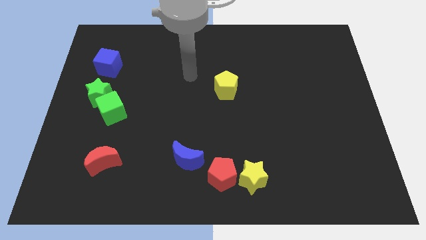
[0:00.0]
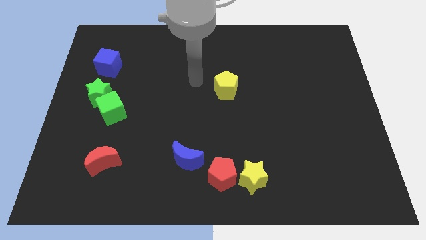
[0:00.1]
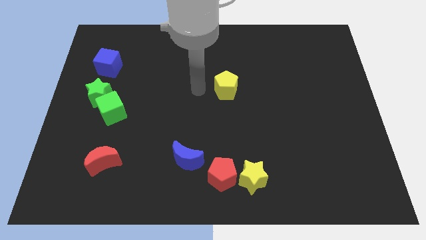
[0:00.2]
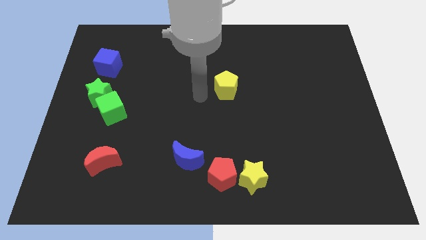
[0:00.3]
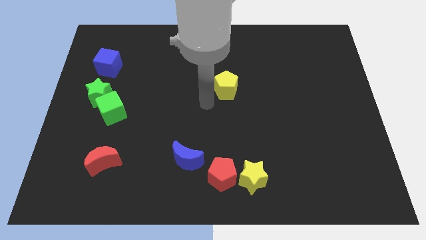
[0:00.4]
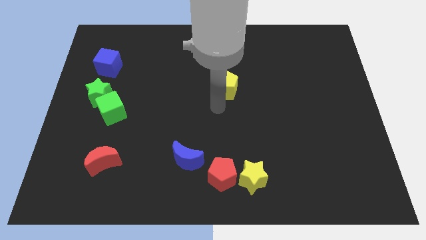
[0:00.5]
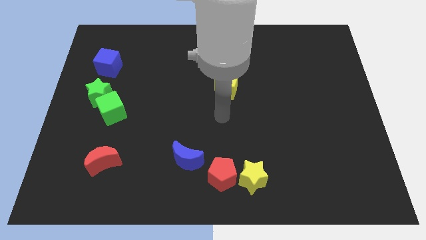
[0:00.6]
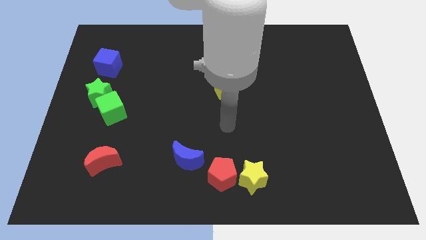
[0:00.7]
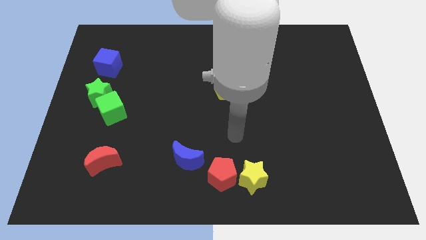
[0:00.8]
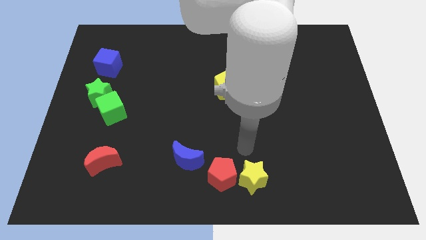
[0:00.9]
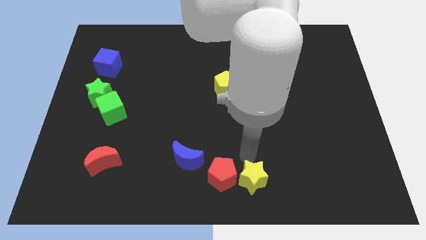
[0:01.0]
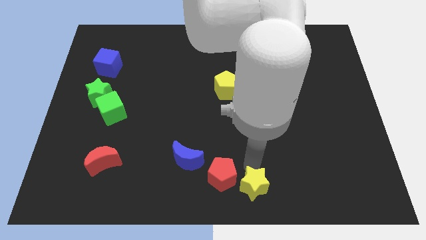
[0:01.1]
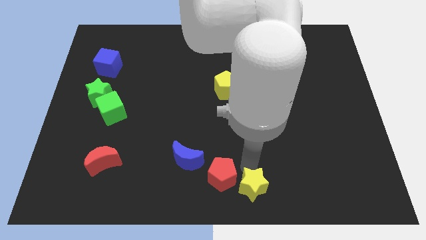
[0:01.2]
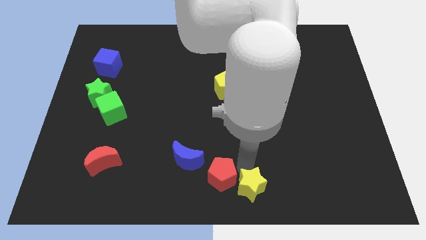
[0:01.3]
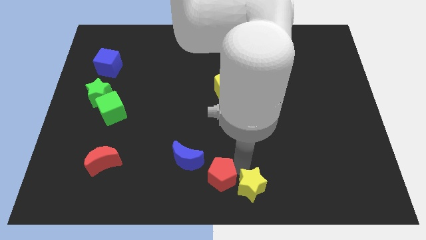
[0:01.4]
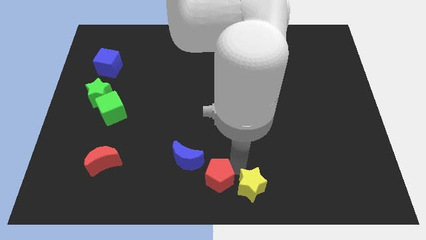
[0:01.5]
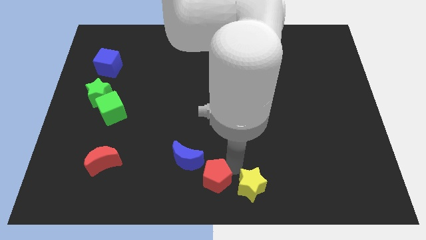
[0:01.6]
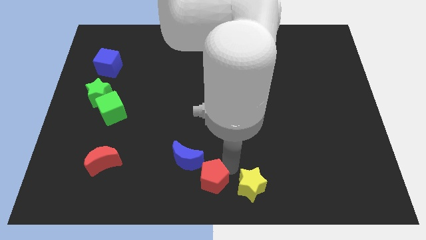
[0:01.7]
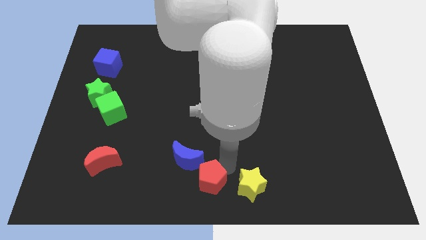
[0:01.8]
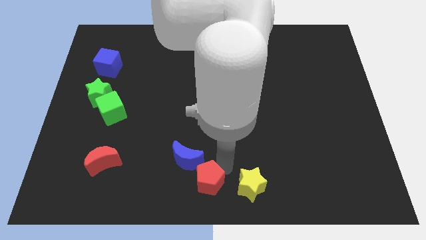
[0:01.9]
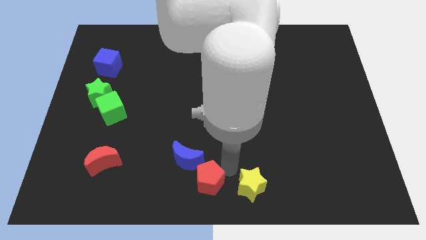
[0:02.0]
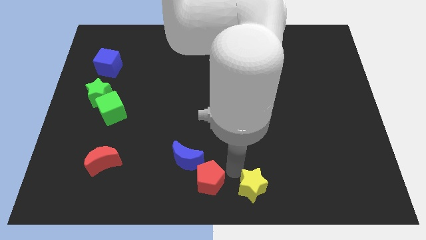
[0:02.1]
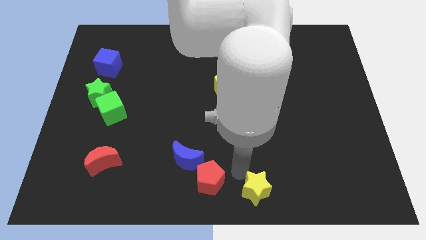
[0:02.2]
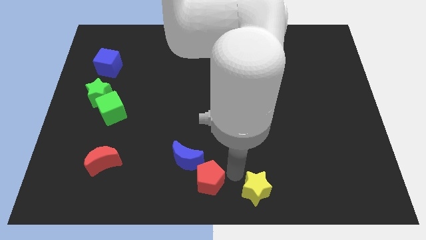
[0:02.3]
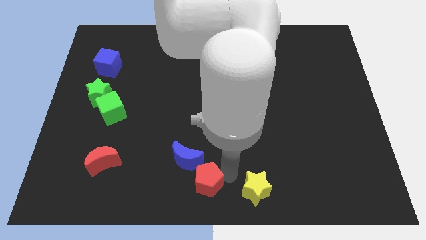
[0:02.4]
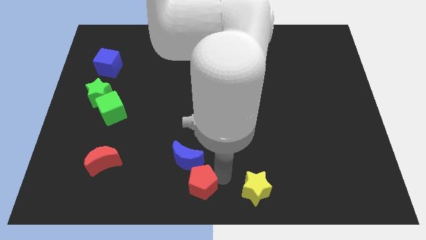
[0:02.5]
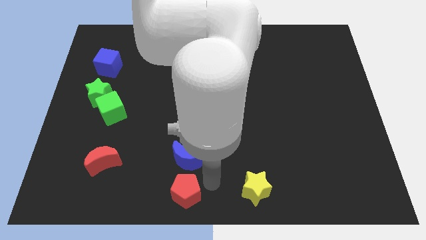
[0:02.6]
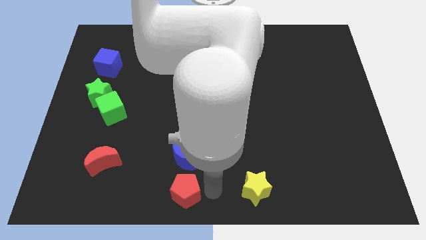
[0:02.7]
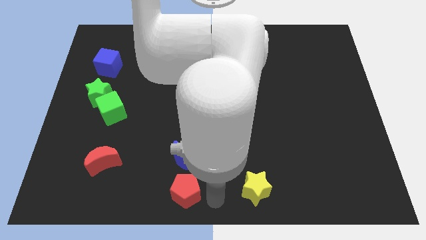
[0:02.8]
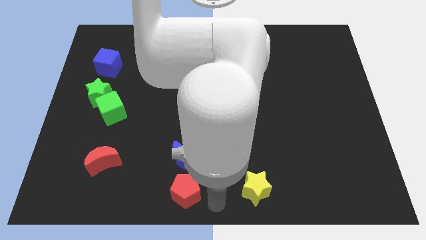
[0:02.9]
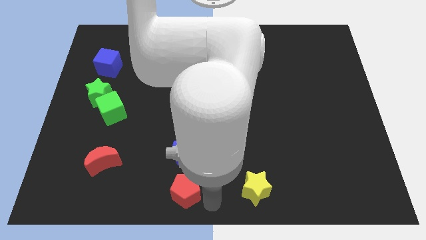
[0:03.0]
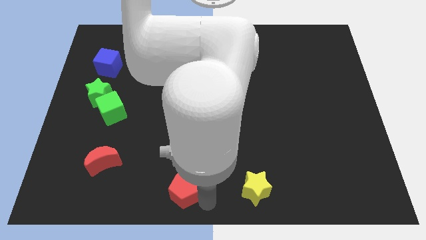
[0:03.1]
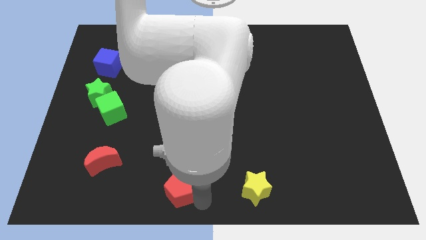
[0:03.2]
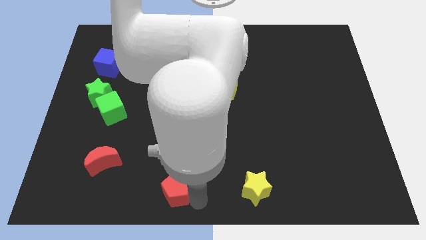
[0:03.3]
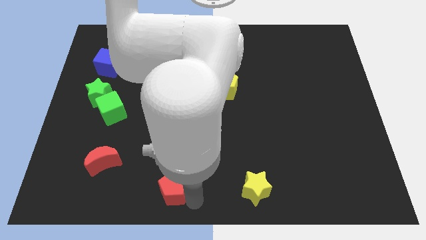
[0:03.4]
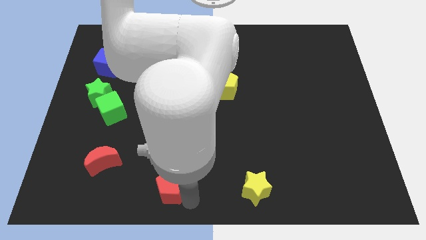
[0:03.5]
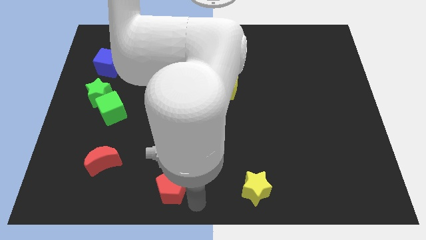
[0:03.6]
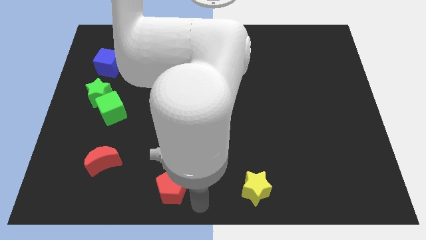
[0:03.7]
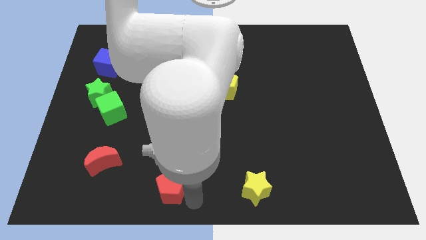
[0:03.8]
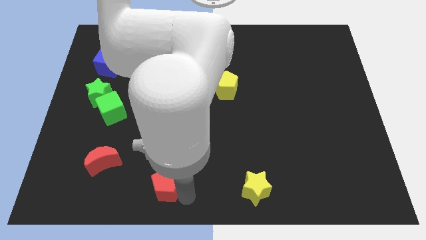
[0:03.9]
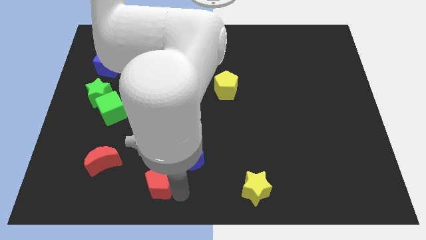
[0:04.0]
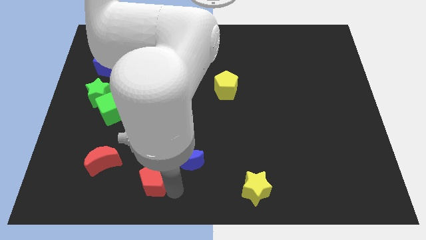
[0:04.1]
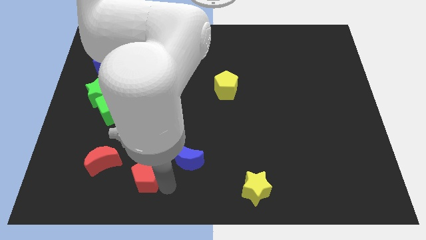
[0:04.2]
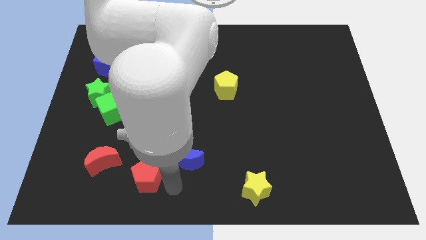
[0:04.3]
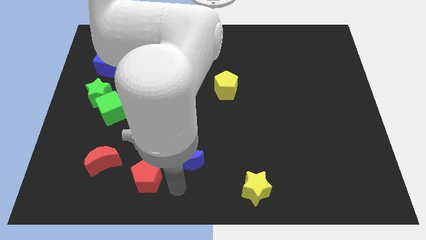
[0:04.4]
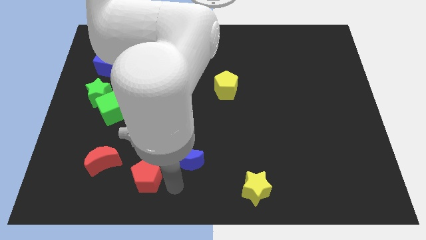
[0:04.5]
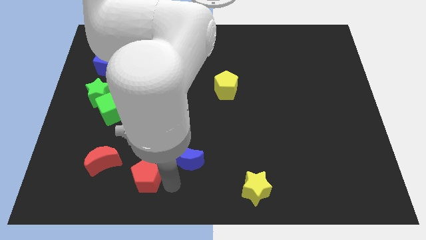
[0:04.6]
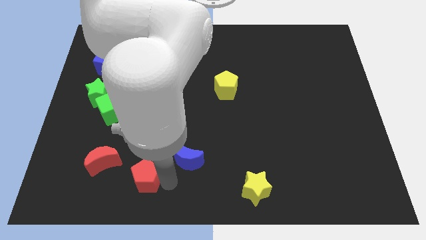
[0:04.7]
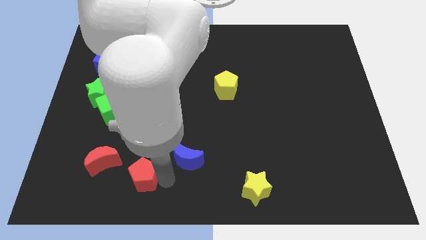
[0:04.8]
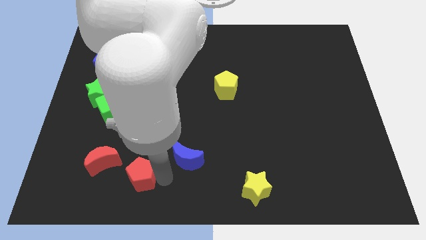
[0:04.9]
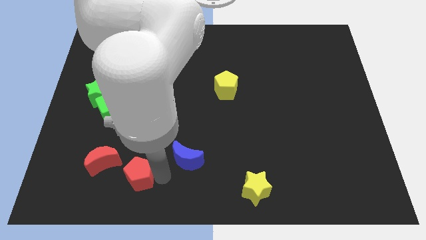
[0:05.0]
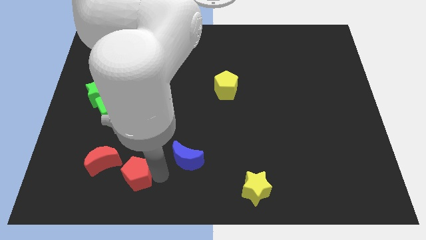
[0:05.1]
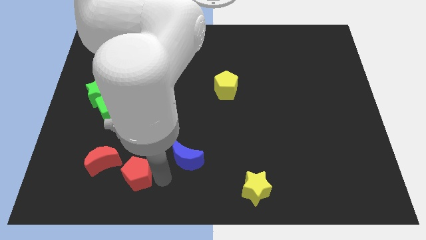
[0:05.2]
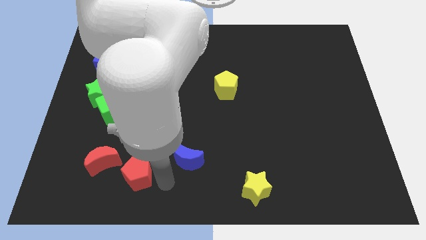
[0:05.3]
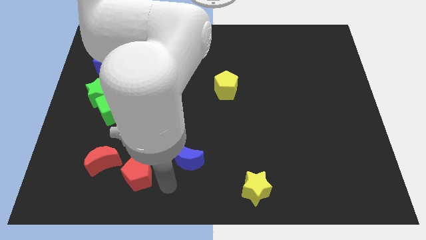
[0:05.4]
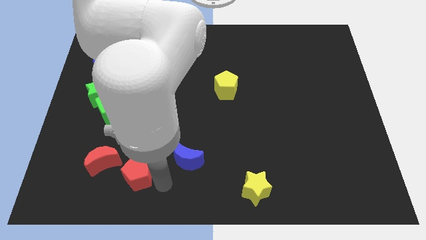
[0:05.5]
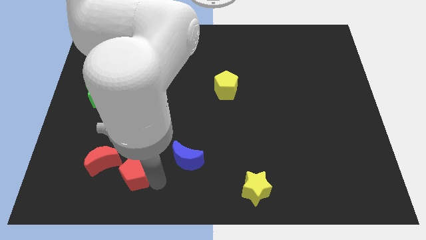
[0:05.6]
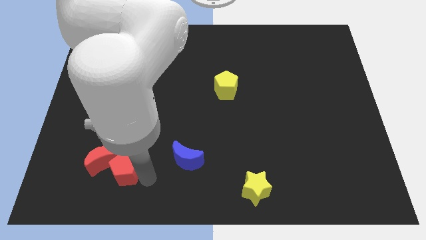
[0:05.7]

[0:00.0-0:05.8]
move the red pentagon next to the red moon

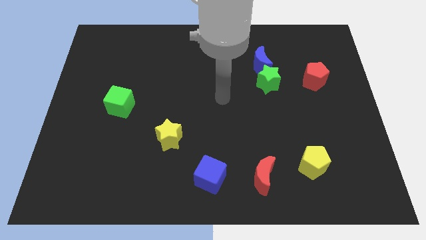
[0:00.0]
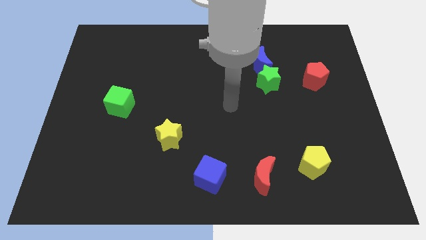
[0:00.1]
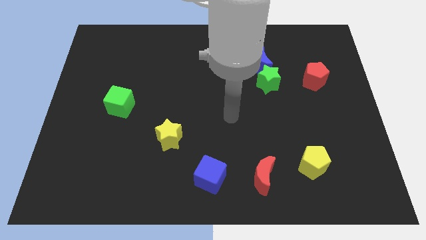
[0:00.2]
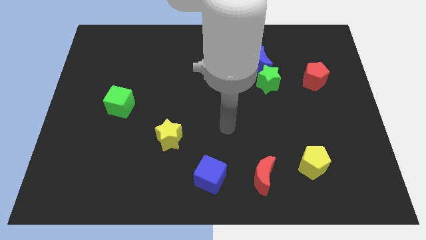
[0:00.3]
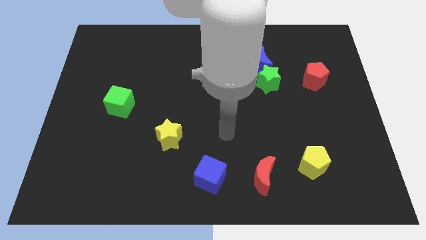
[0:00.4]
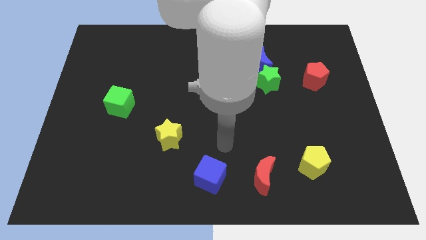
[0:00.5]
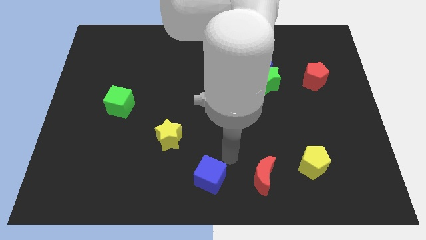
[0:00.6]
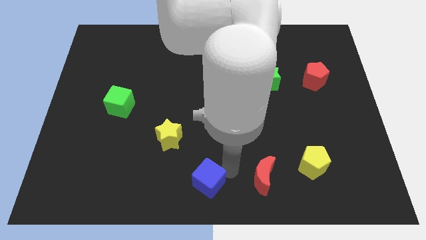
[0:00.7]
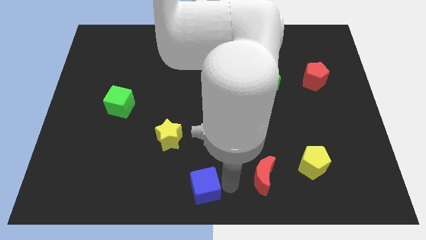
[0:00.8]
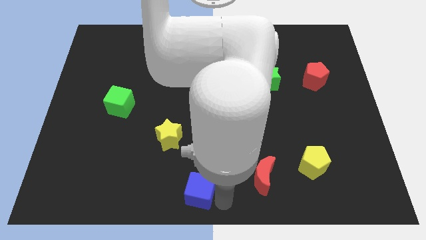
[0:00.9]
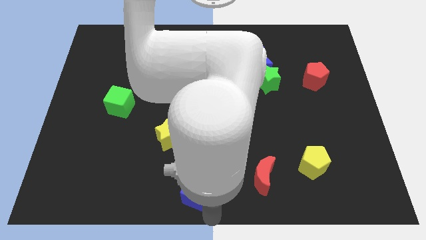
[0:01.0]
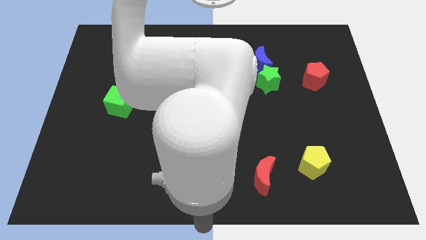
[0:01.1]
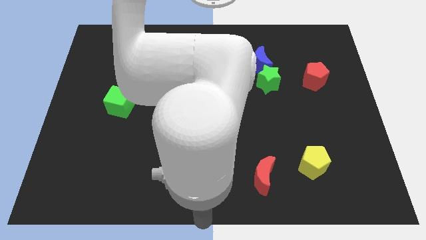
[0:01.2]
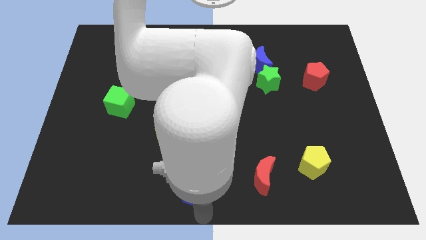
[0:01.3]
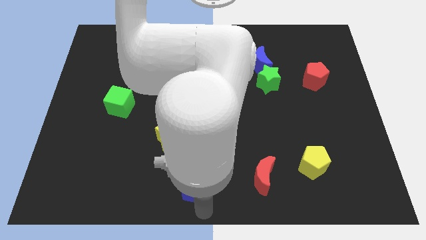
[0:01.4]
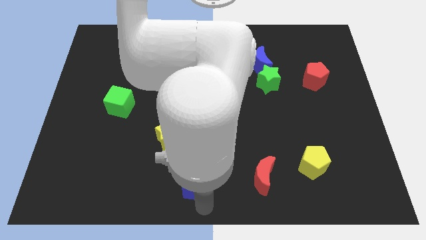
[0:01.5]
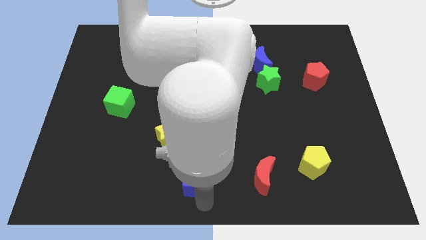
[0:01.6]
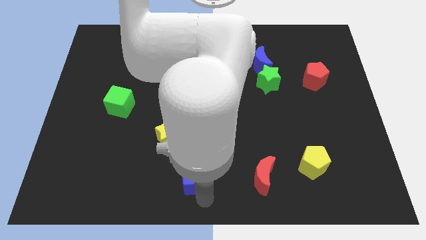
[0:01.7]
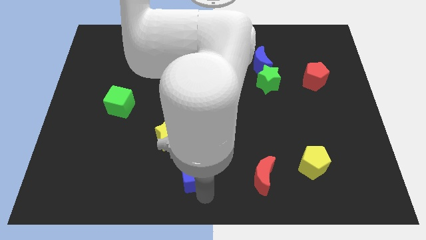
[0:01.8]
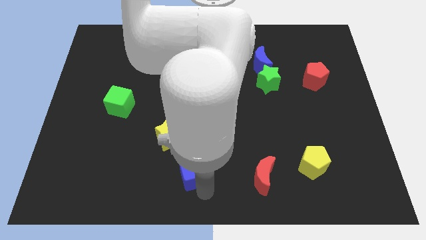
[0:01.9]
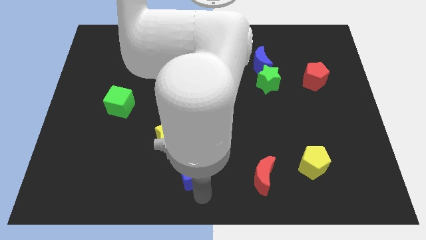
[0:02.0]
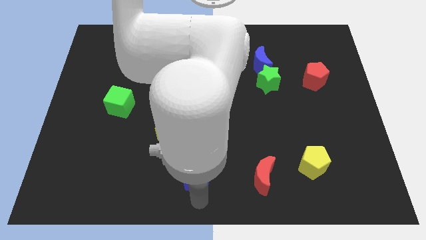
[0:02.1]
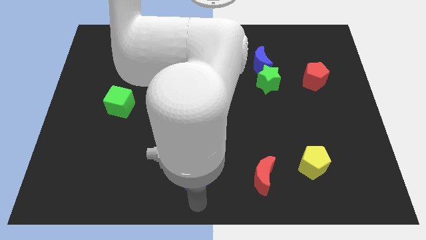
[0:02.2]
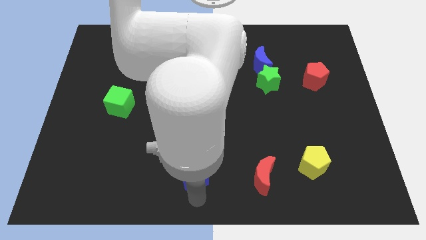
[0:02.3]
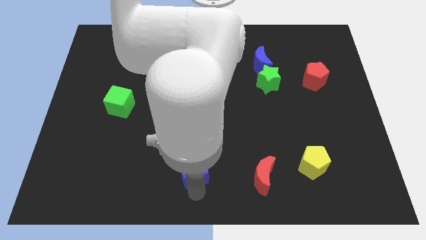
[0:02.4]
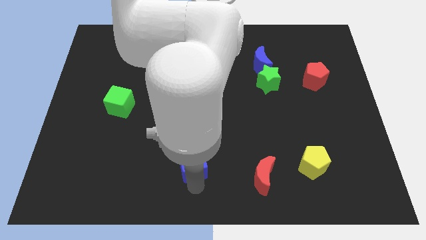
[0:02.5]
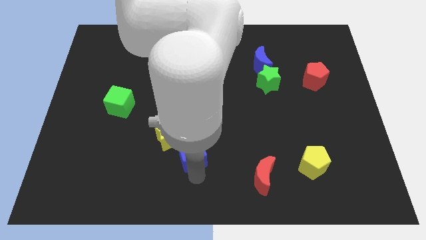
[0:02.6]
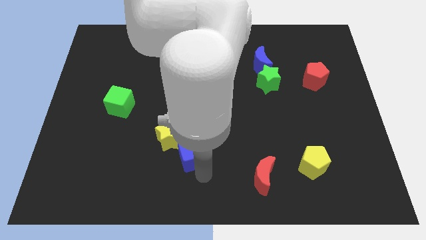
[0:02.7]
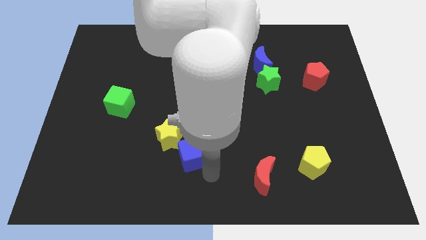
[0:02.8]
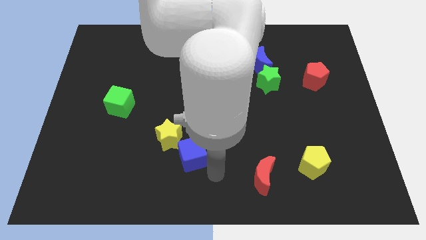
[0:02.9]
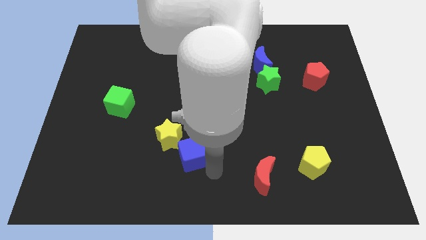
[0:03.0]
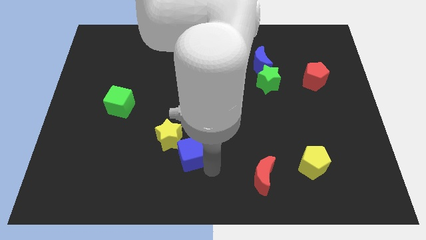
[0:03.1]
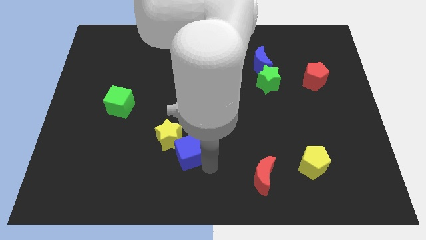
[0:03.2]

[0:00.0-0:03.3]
put the blue cube close to the yellow star
